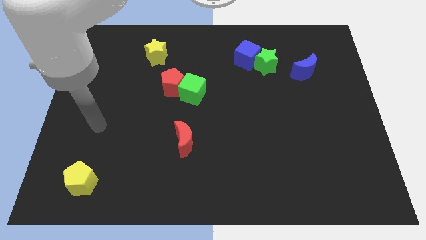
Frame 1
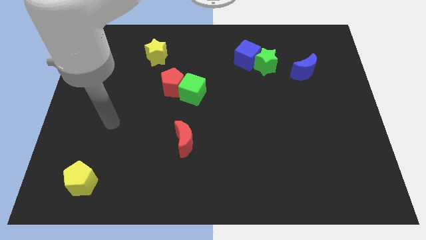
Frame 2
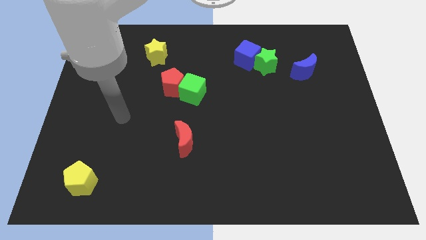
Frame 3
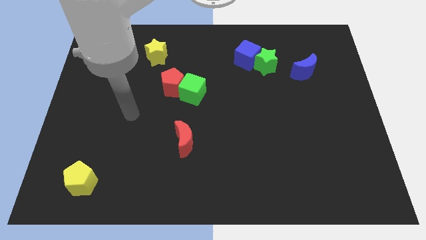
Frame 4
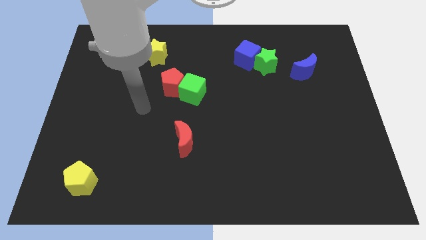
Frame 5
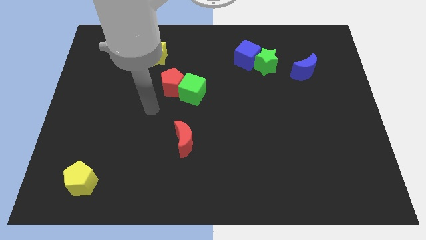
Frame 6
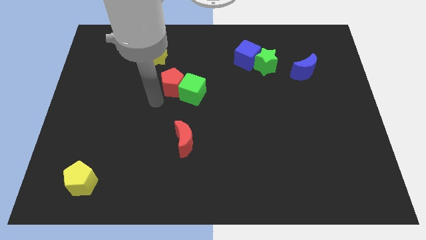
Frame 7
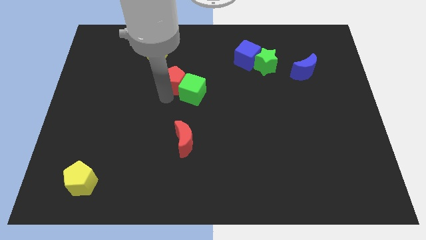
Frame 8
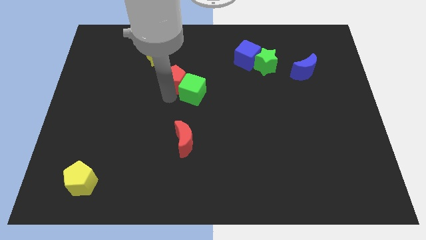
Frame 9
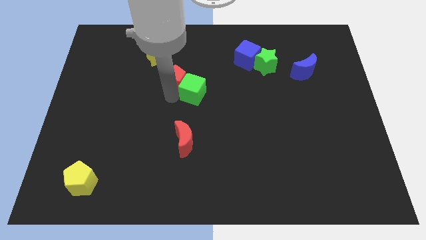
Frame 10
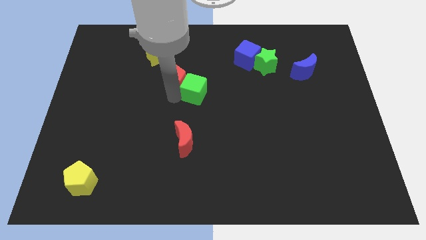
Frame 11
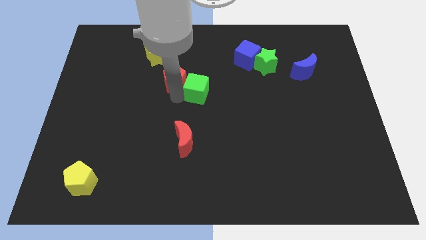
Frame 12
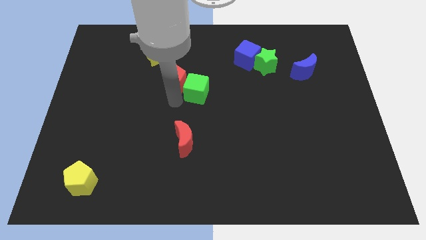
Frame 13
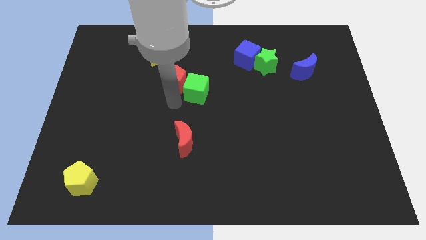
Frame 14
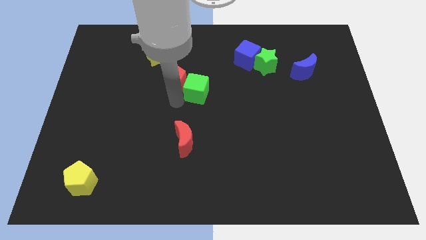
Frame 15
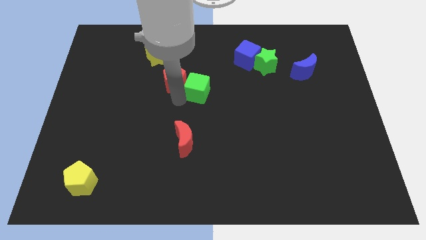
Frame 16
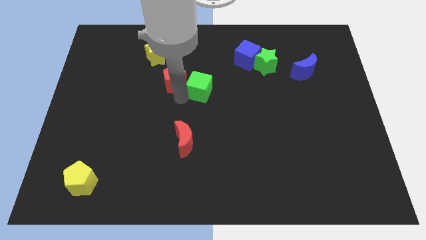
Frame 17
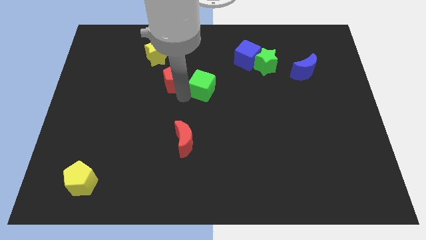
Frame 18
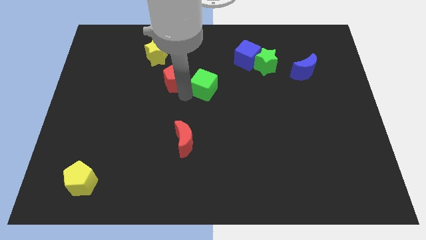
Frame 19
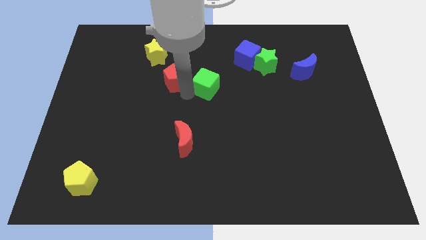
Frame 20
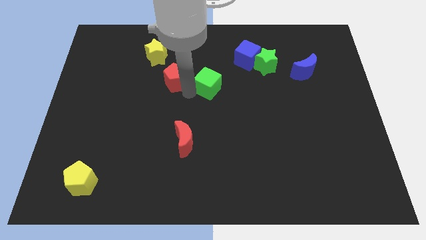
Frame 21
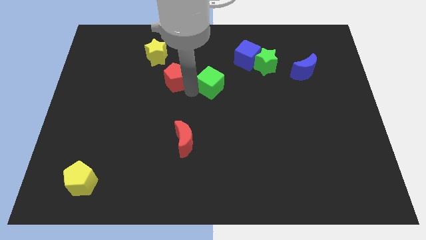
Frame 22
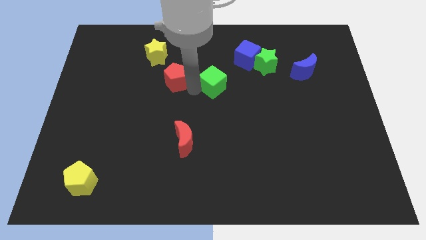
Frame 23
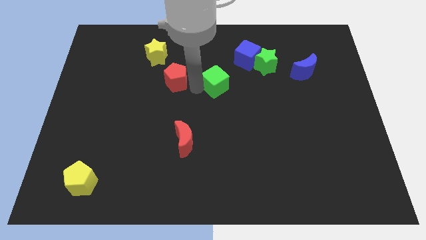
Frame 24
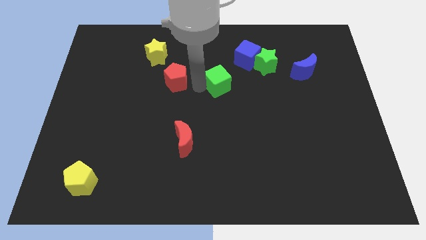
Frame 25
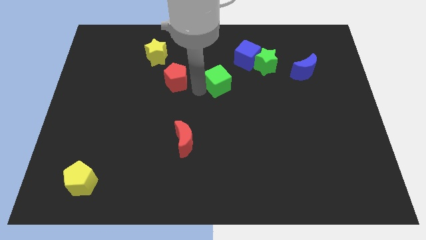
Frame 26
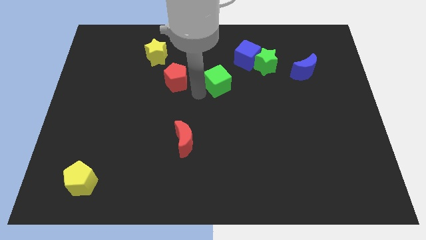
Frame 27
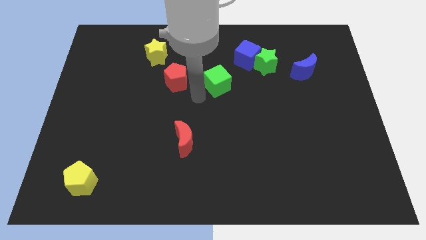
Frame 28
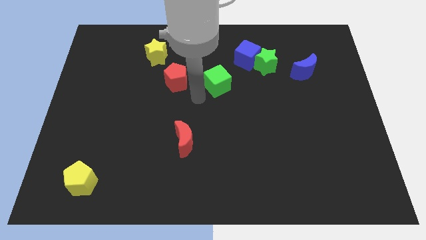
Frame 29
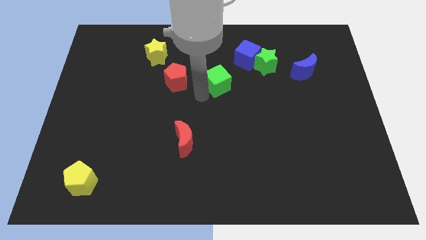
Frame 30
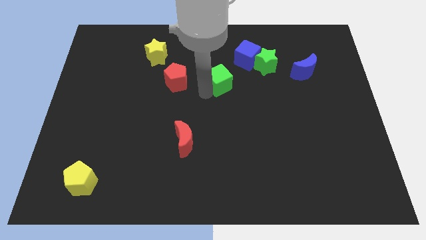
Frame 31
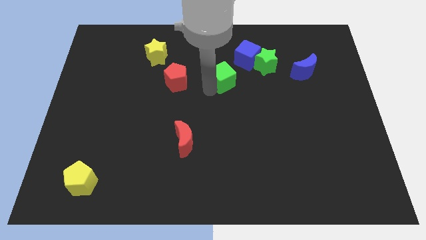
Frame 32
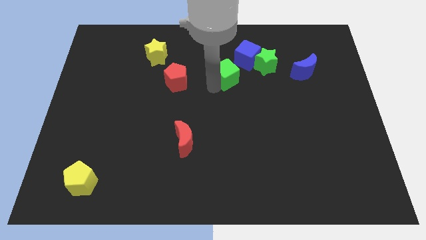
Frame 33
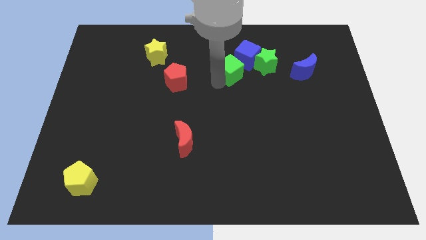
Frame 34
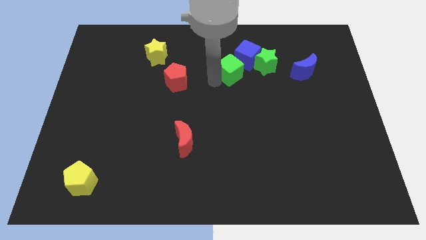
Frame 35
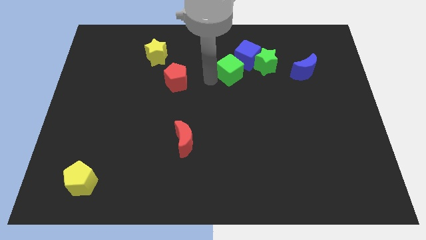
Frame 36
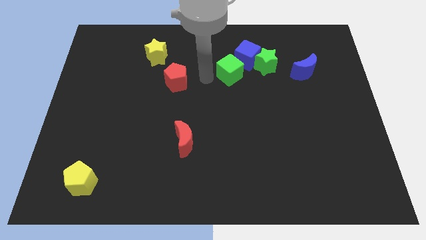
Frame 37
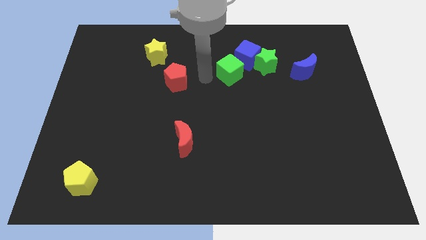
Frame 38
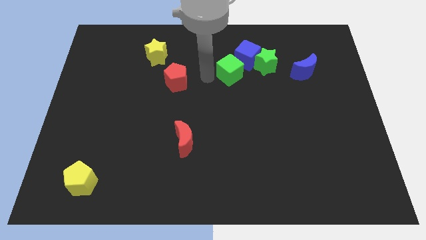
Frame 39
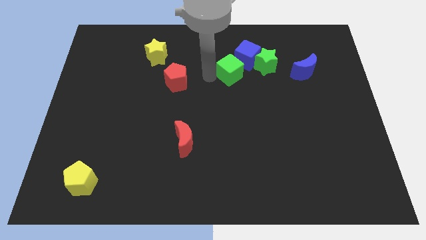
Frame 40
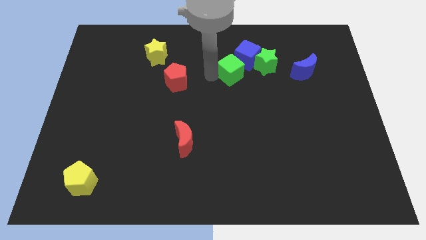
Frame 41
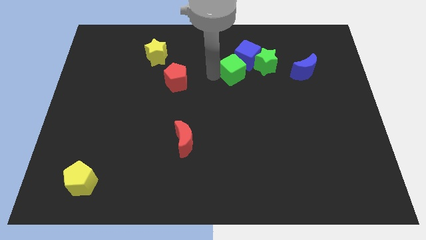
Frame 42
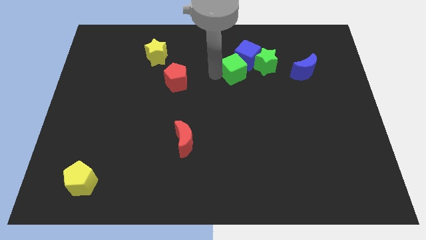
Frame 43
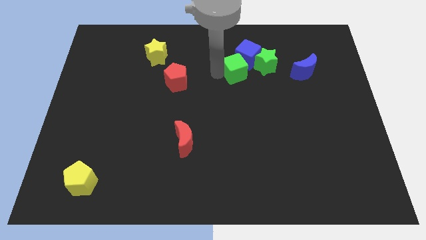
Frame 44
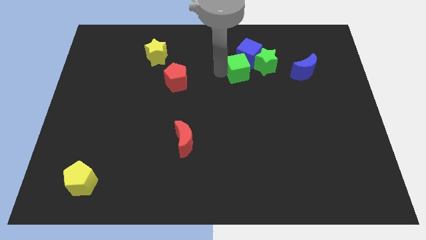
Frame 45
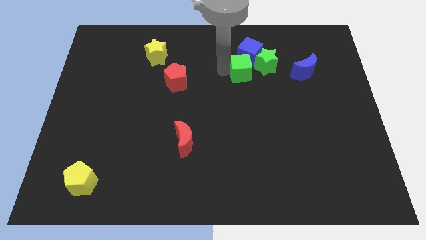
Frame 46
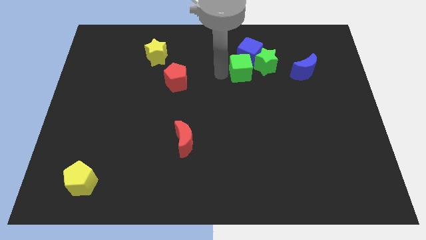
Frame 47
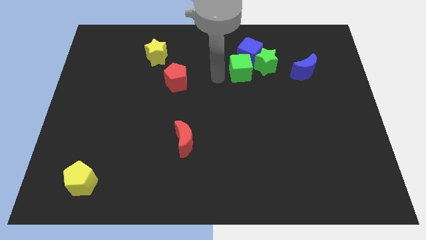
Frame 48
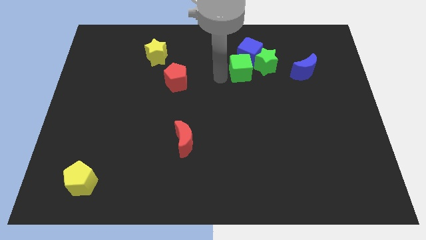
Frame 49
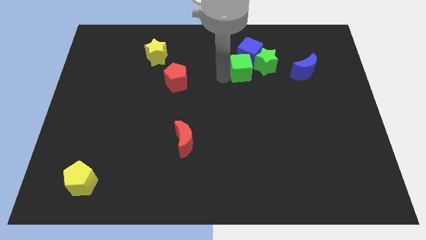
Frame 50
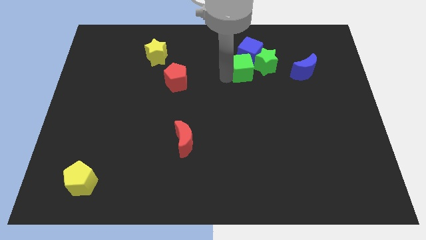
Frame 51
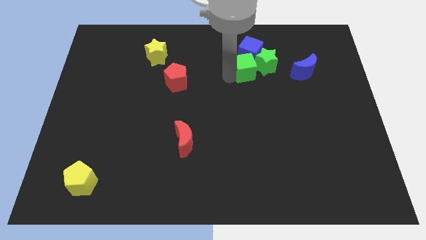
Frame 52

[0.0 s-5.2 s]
slide the green cube next to the green star

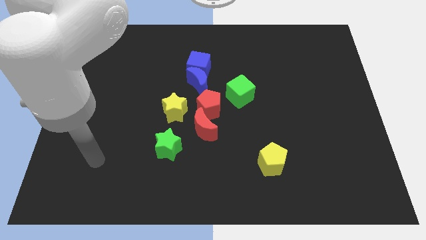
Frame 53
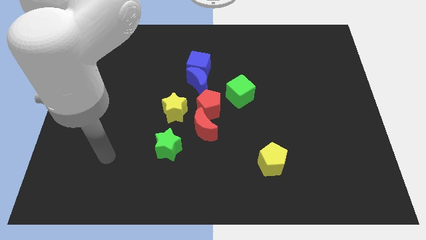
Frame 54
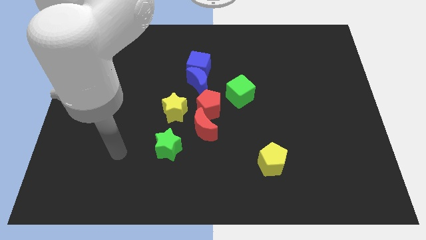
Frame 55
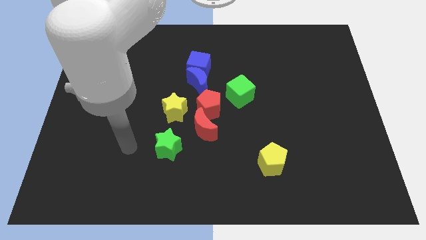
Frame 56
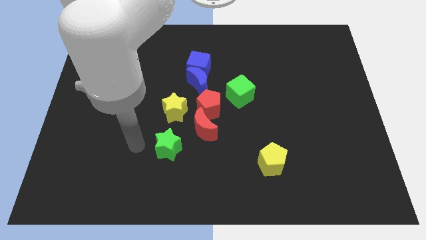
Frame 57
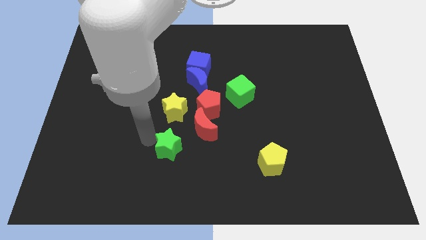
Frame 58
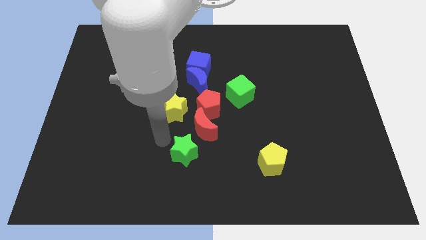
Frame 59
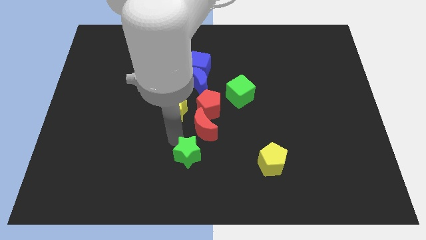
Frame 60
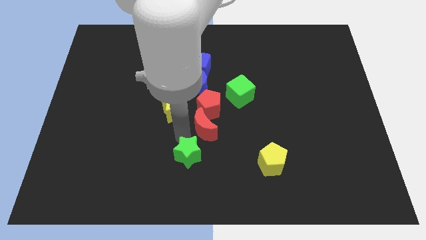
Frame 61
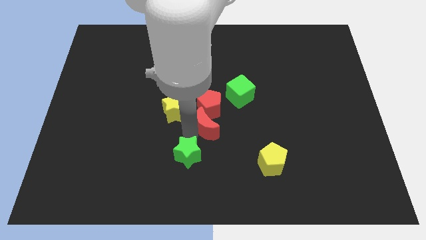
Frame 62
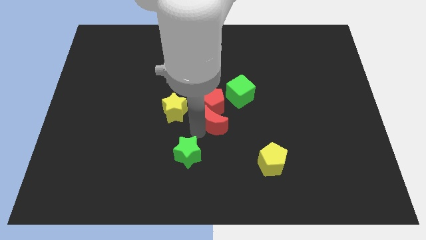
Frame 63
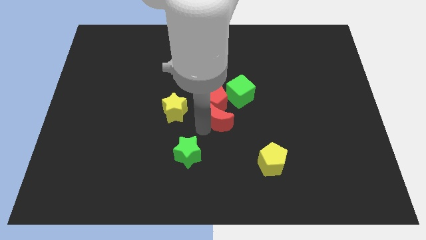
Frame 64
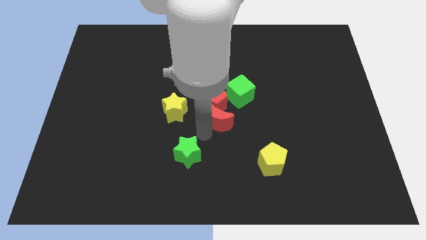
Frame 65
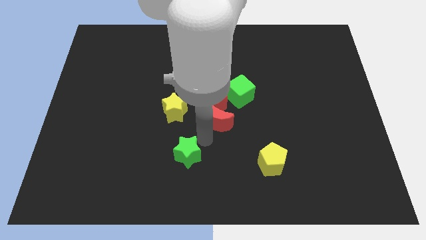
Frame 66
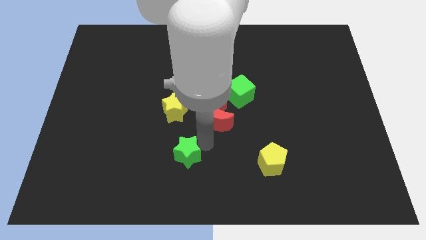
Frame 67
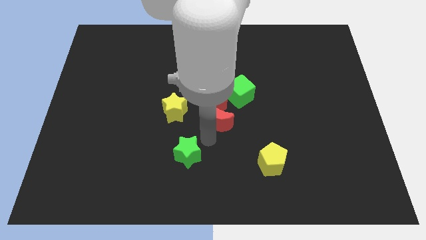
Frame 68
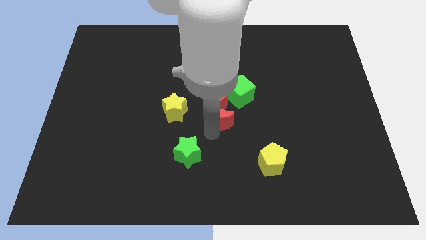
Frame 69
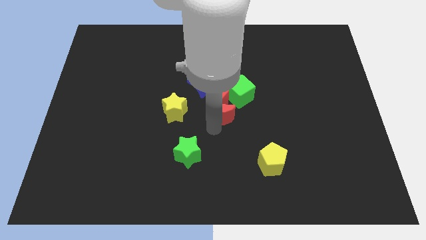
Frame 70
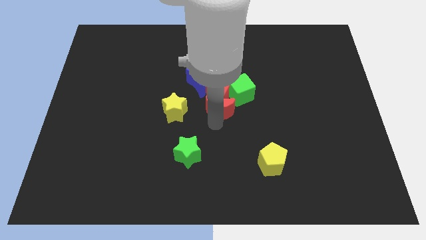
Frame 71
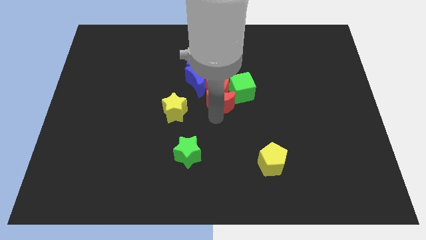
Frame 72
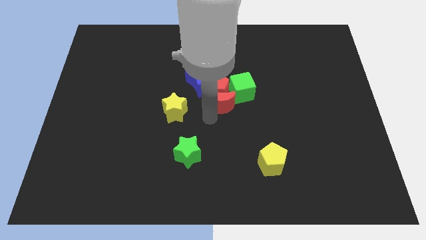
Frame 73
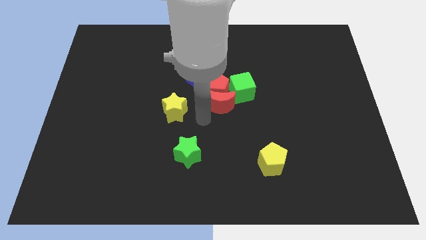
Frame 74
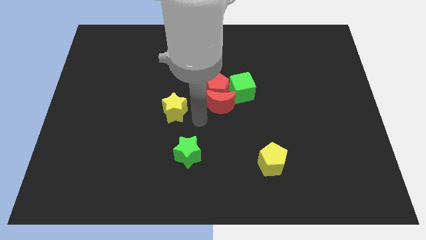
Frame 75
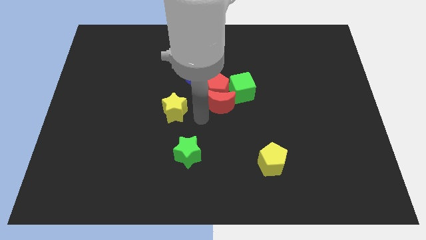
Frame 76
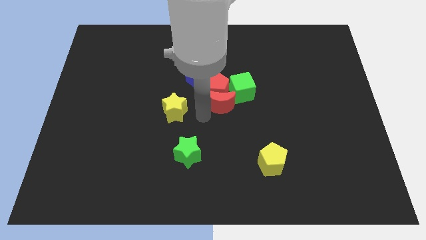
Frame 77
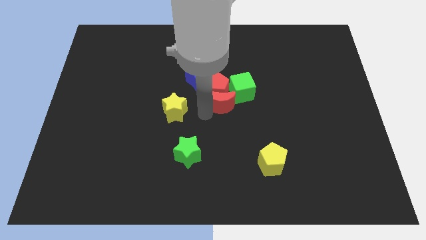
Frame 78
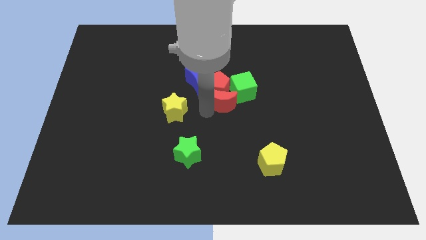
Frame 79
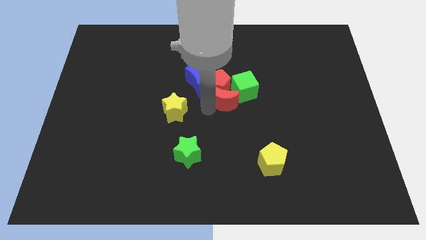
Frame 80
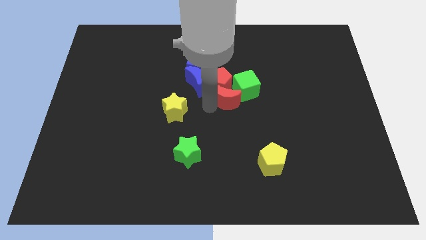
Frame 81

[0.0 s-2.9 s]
slide the red moon next to the green cube
